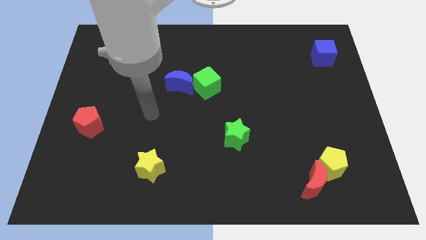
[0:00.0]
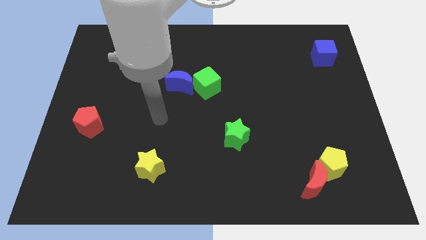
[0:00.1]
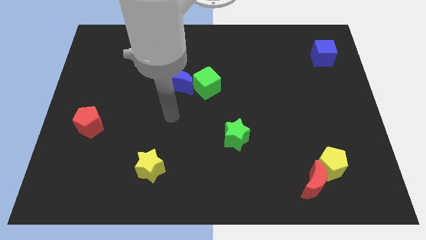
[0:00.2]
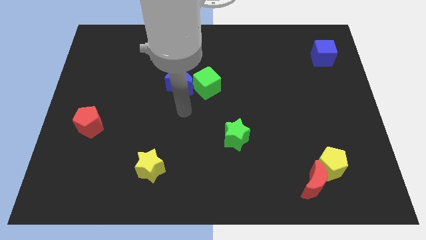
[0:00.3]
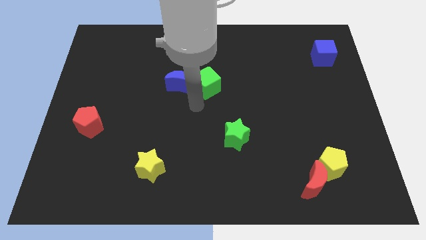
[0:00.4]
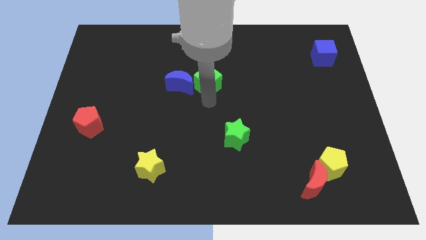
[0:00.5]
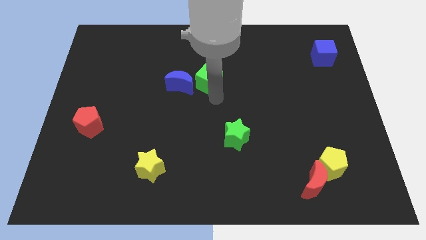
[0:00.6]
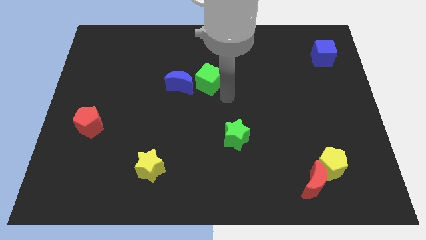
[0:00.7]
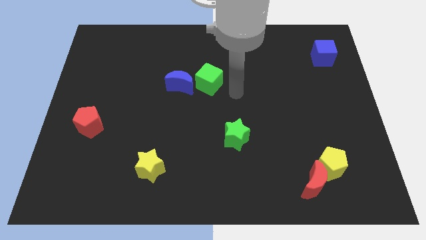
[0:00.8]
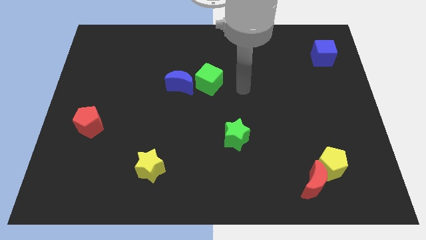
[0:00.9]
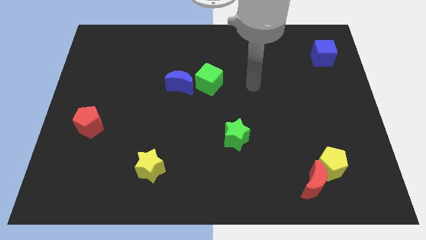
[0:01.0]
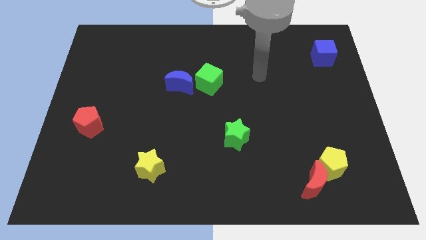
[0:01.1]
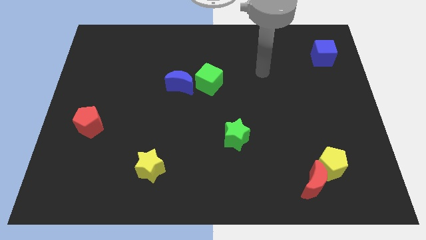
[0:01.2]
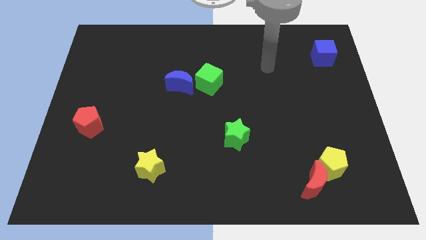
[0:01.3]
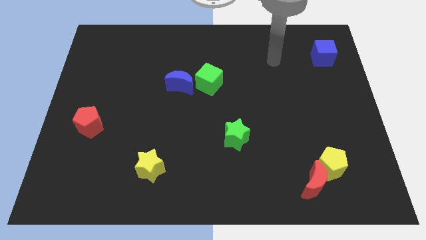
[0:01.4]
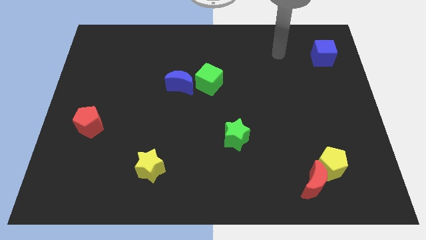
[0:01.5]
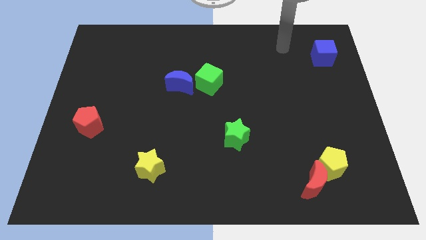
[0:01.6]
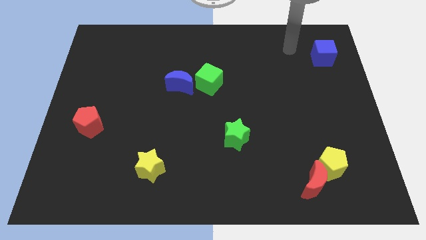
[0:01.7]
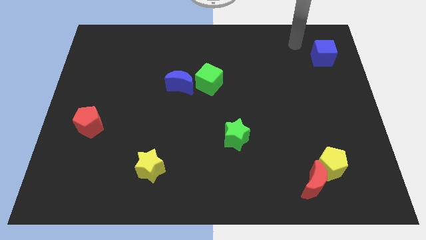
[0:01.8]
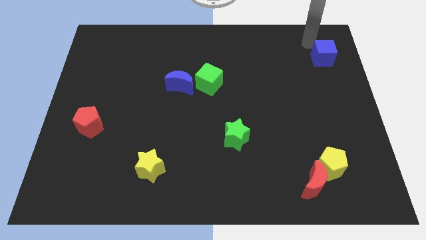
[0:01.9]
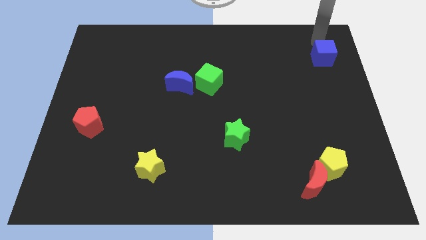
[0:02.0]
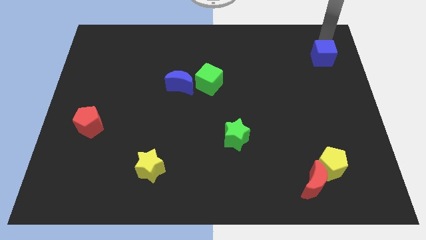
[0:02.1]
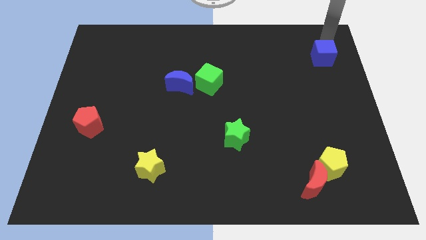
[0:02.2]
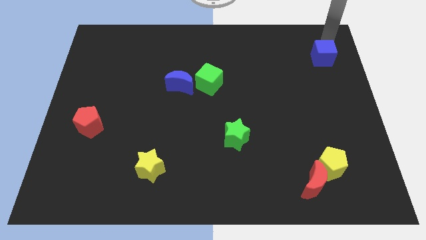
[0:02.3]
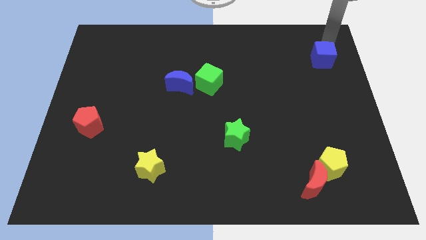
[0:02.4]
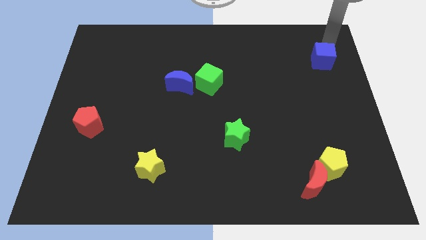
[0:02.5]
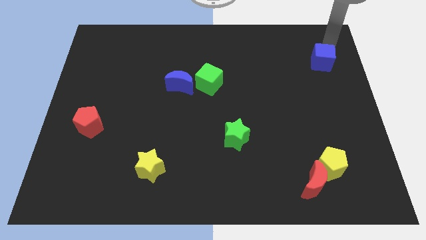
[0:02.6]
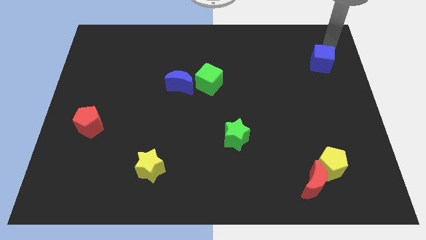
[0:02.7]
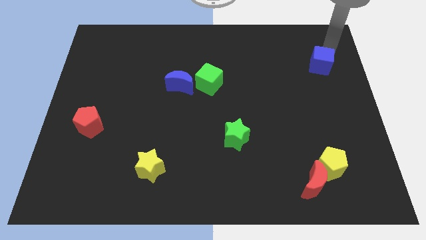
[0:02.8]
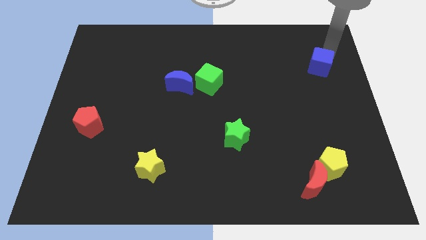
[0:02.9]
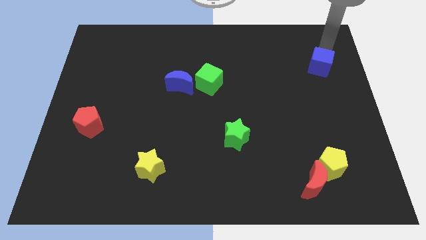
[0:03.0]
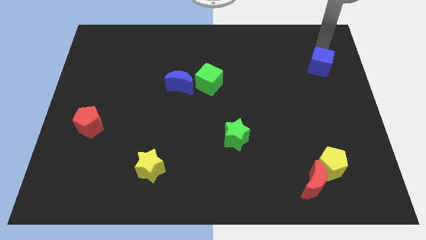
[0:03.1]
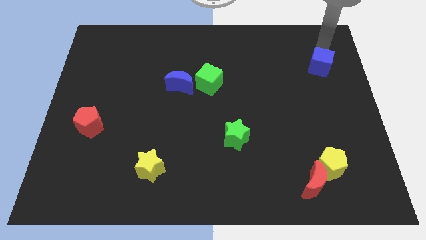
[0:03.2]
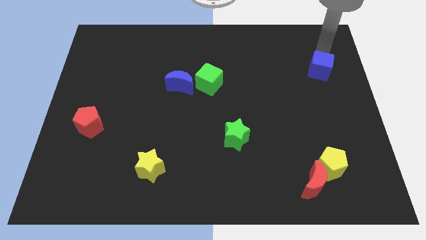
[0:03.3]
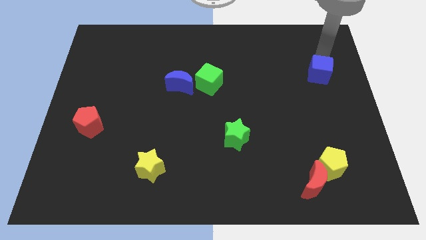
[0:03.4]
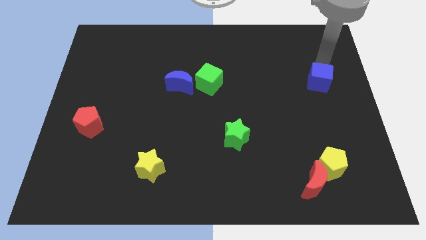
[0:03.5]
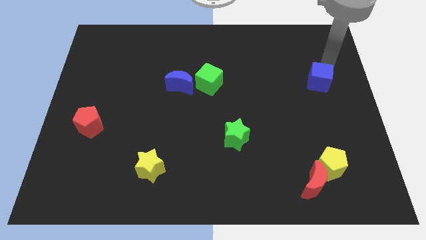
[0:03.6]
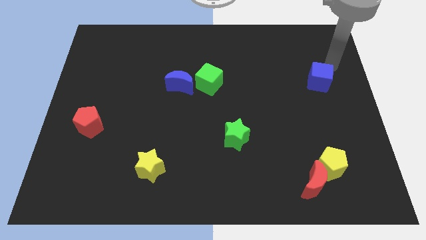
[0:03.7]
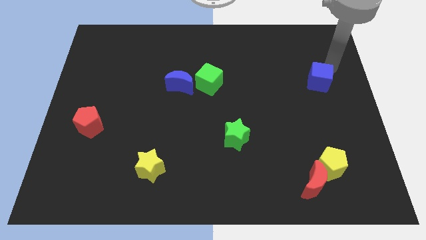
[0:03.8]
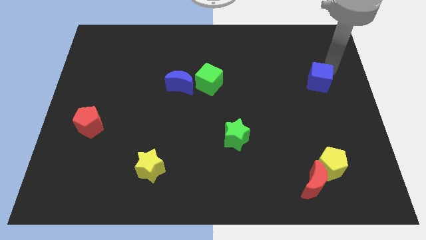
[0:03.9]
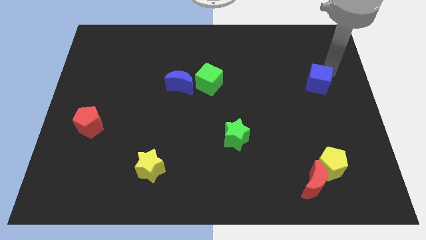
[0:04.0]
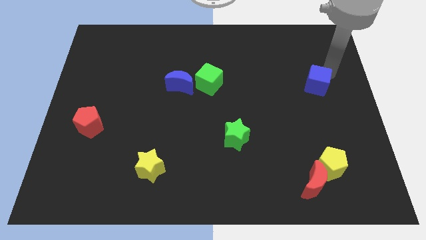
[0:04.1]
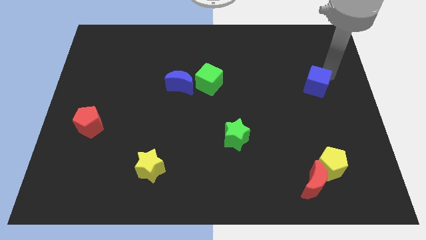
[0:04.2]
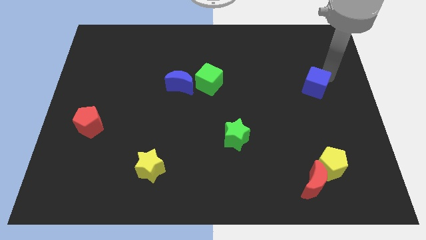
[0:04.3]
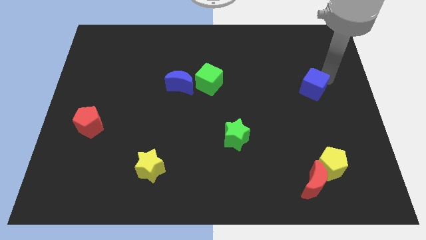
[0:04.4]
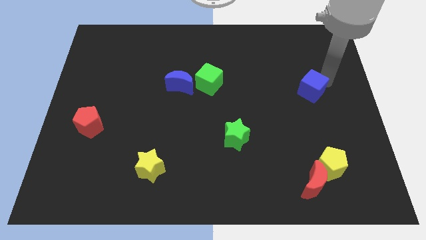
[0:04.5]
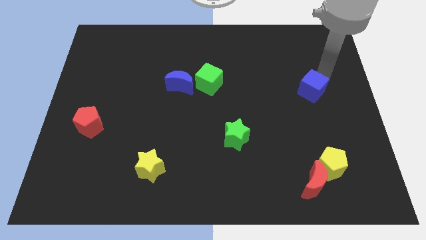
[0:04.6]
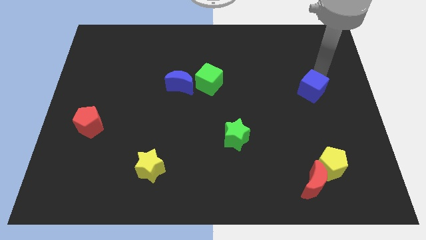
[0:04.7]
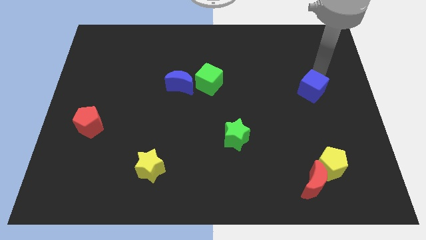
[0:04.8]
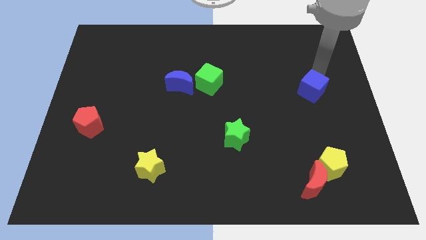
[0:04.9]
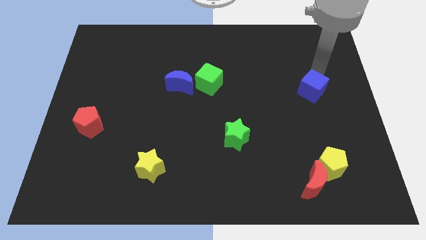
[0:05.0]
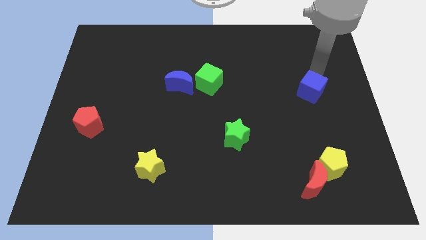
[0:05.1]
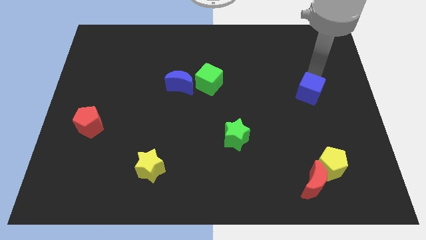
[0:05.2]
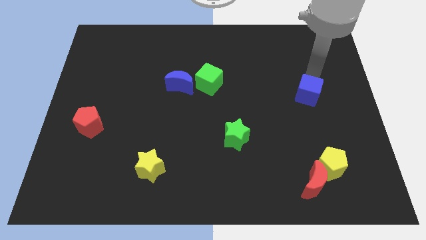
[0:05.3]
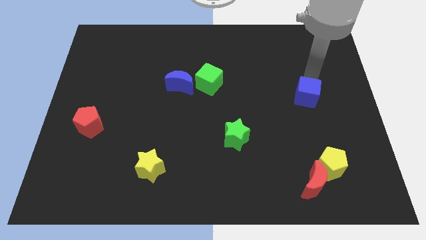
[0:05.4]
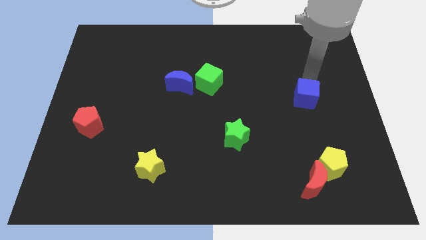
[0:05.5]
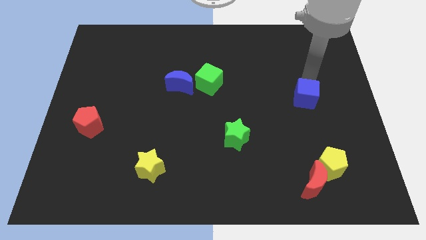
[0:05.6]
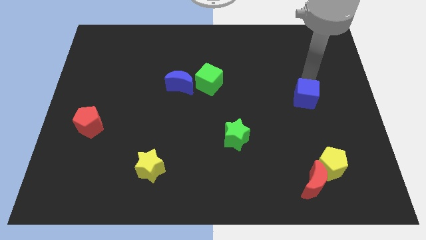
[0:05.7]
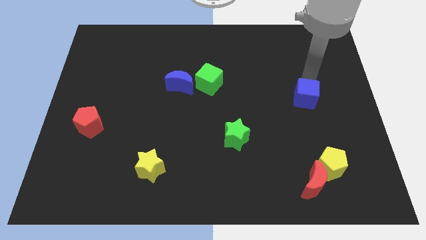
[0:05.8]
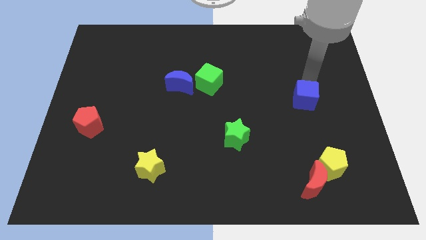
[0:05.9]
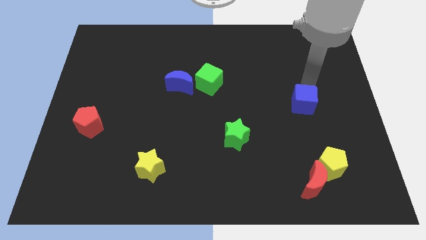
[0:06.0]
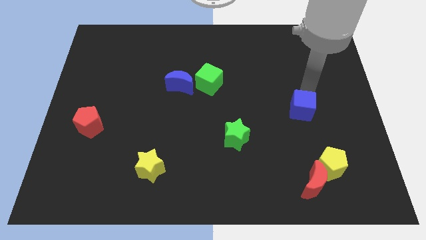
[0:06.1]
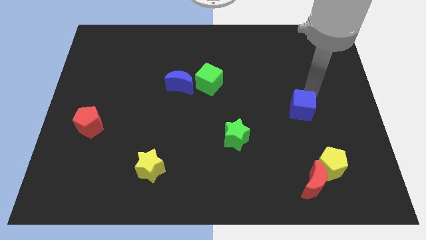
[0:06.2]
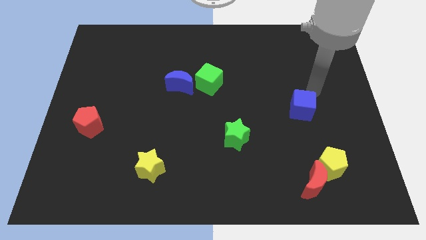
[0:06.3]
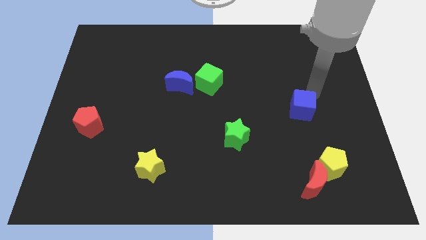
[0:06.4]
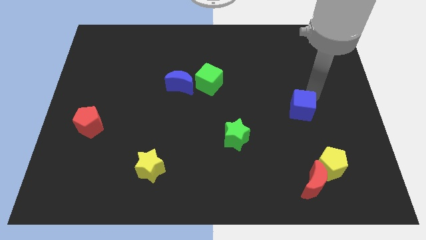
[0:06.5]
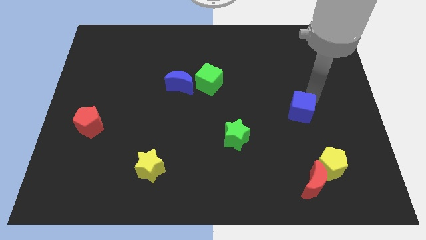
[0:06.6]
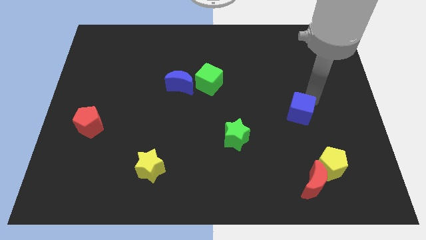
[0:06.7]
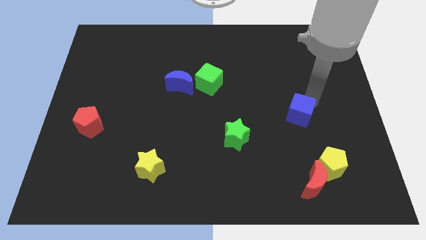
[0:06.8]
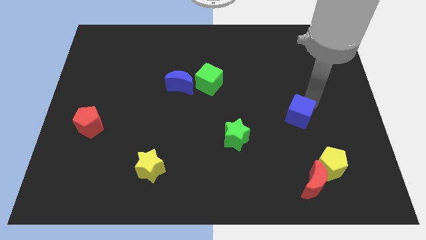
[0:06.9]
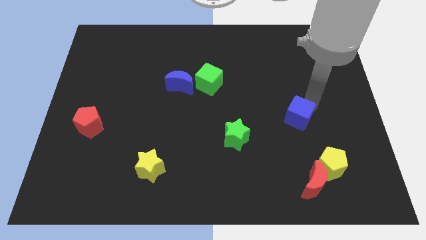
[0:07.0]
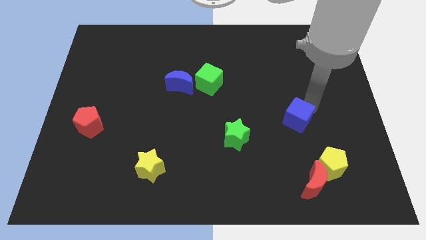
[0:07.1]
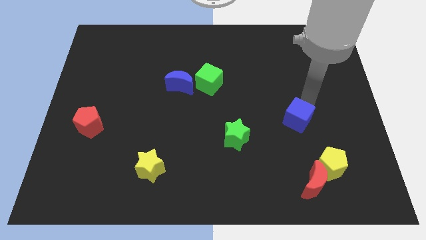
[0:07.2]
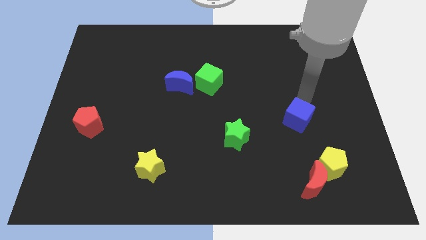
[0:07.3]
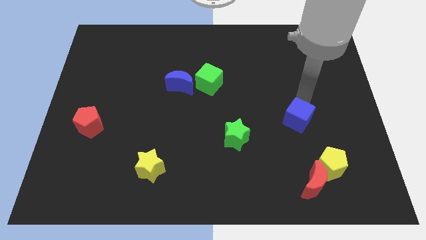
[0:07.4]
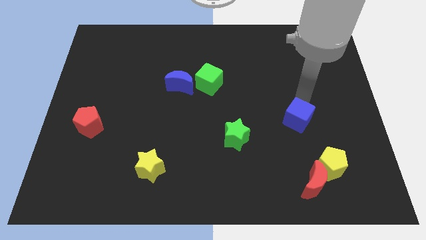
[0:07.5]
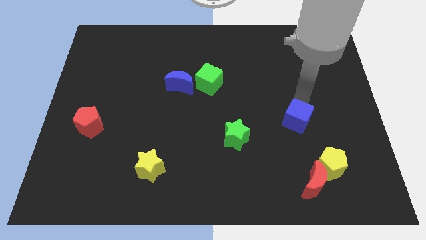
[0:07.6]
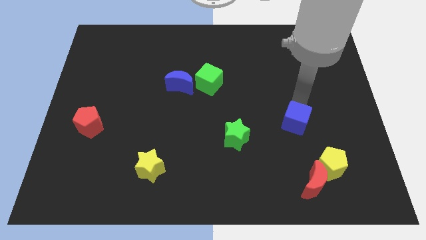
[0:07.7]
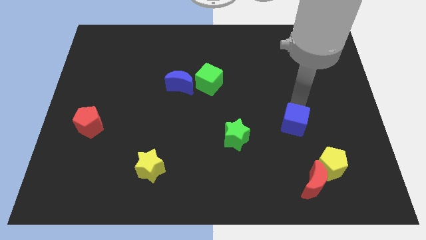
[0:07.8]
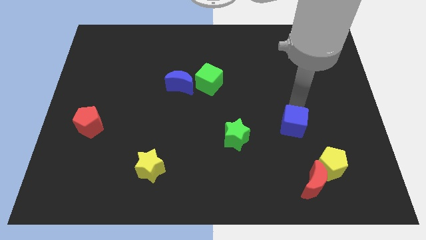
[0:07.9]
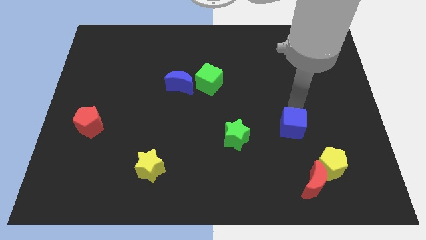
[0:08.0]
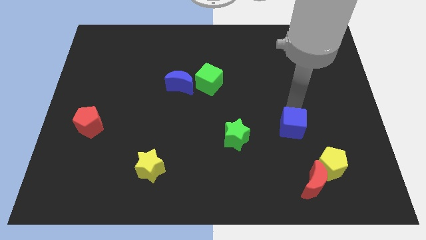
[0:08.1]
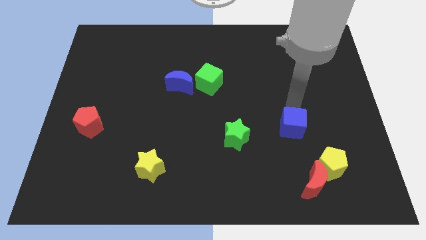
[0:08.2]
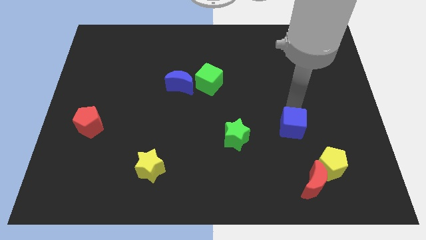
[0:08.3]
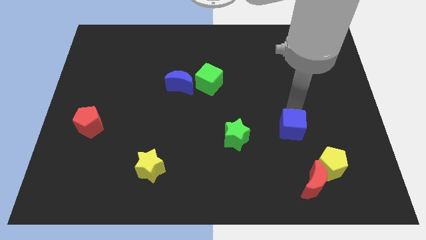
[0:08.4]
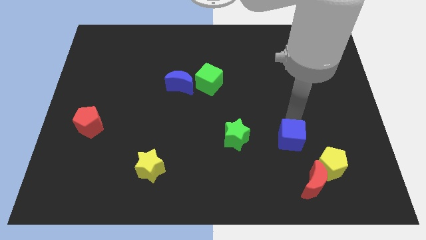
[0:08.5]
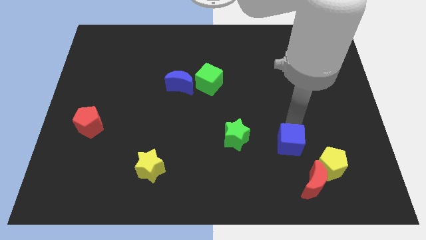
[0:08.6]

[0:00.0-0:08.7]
put the blue cube diagonally up and to the left of the red moon
